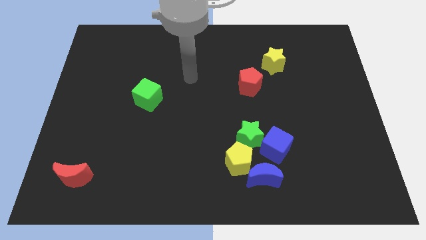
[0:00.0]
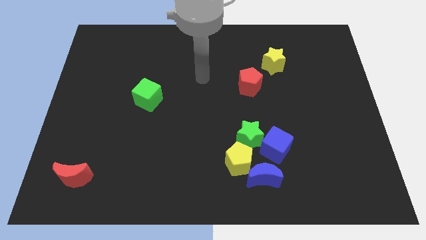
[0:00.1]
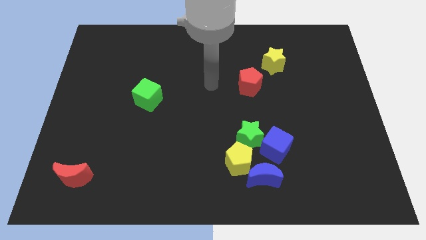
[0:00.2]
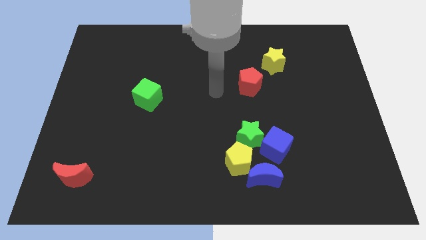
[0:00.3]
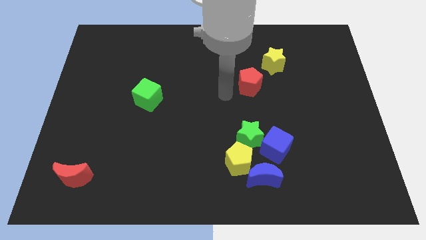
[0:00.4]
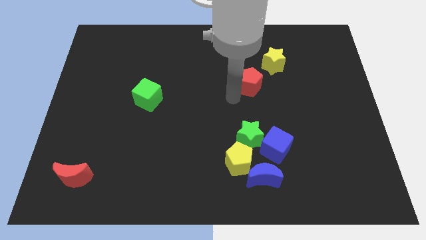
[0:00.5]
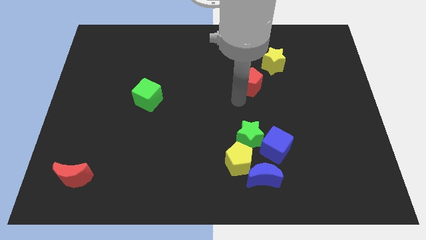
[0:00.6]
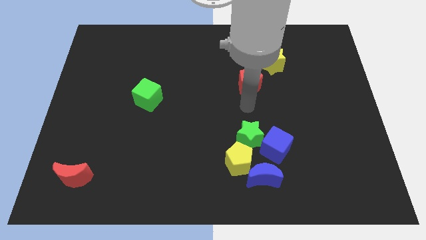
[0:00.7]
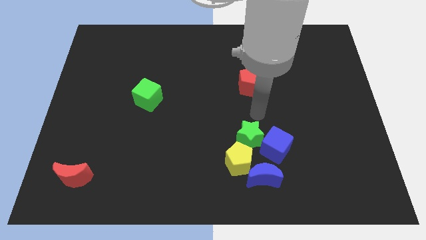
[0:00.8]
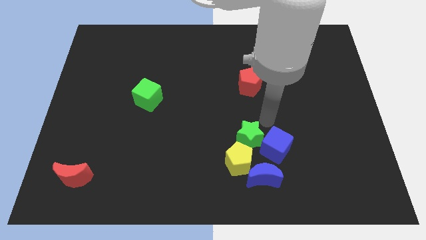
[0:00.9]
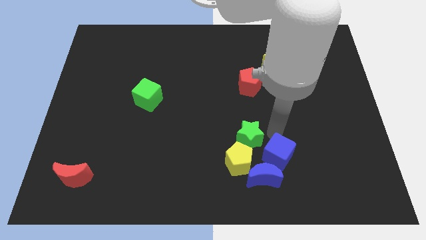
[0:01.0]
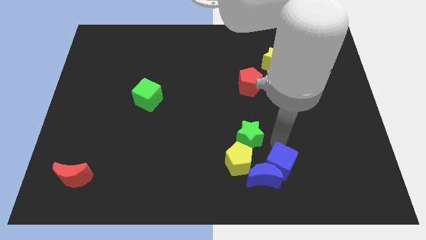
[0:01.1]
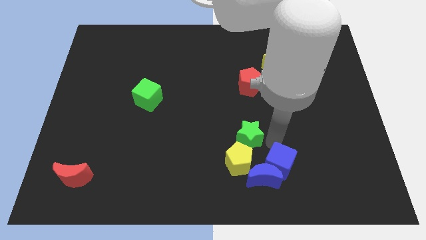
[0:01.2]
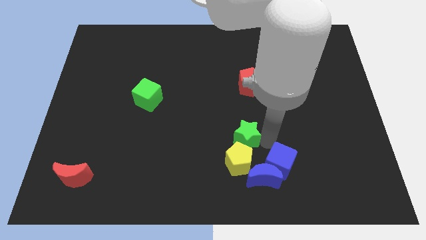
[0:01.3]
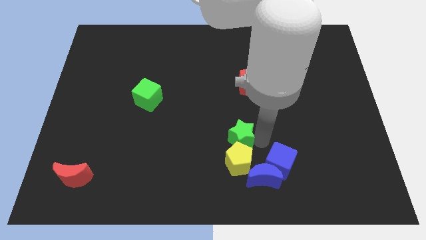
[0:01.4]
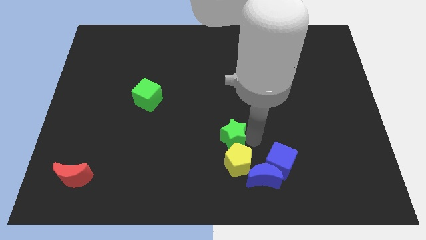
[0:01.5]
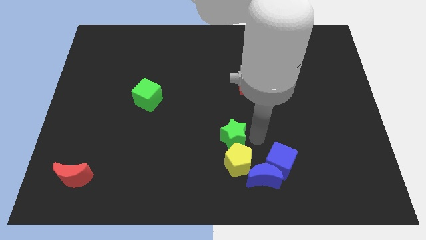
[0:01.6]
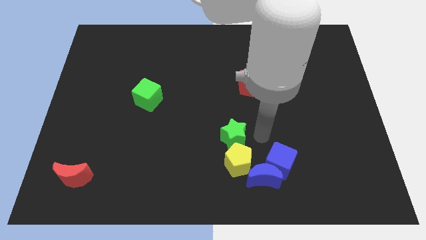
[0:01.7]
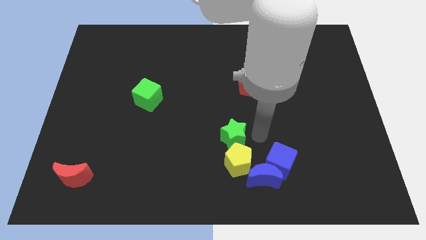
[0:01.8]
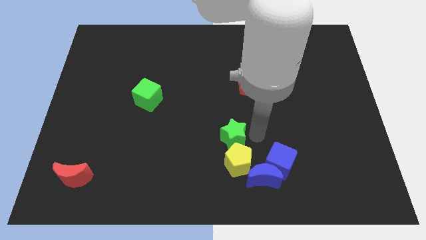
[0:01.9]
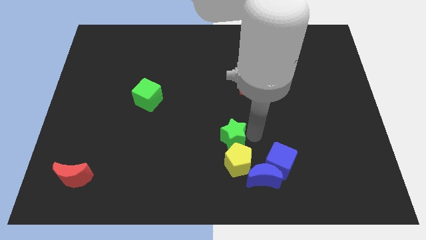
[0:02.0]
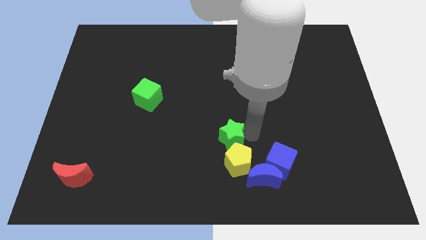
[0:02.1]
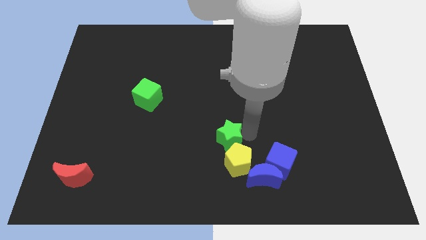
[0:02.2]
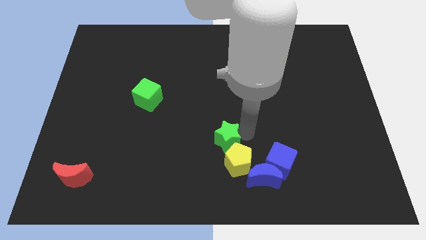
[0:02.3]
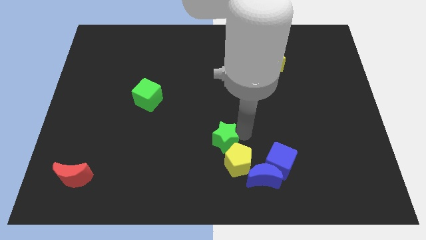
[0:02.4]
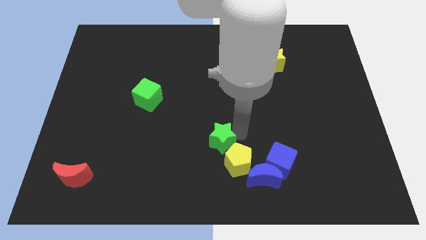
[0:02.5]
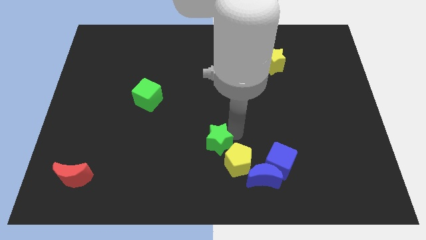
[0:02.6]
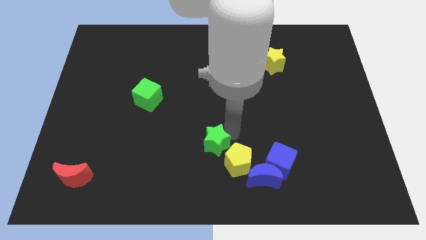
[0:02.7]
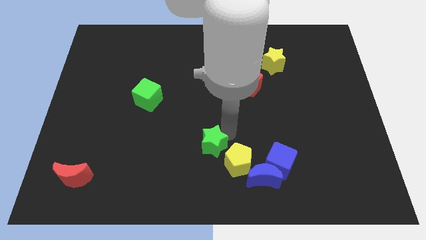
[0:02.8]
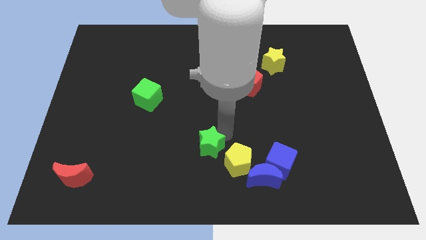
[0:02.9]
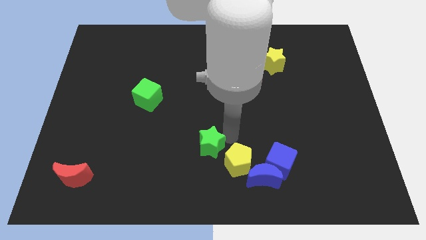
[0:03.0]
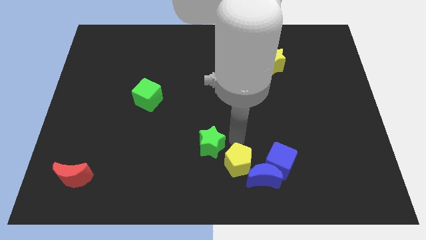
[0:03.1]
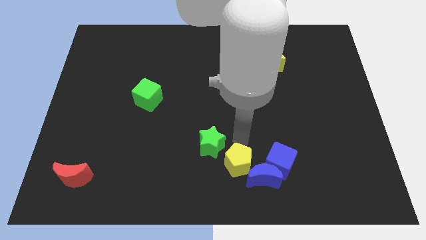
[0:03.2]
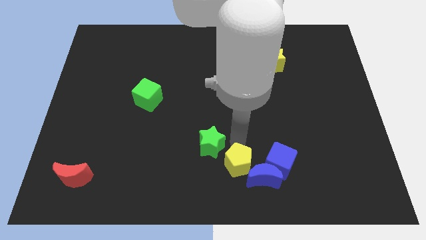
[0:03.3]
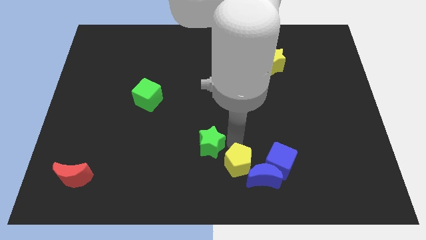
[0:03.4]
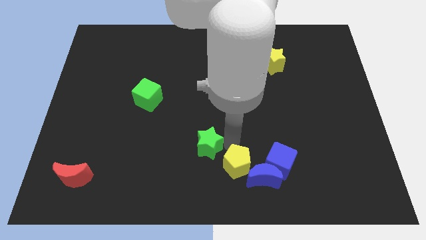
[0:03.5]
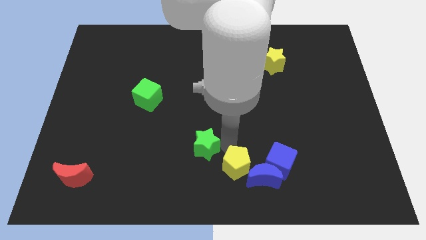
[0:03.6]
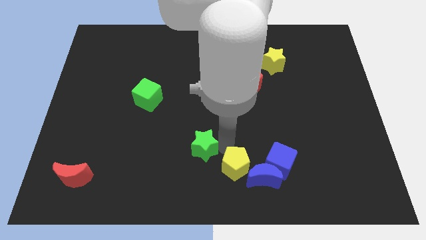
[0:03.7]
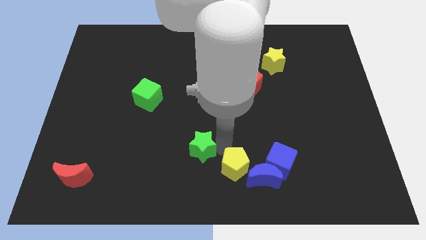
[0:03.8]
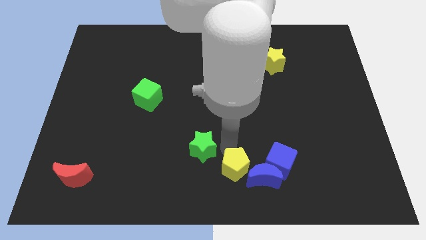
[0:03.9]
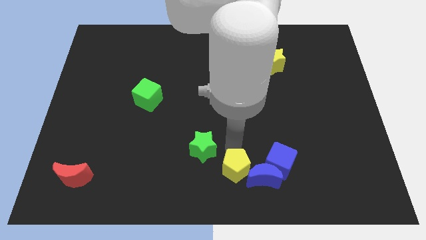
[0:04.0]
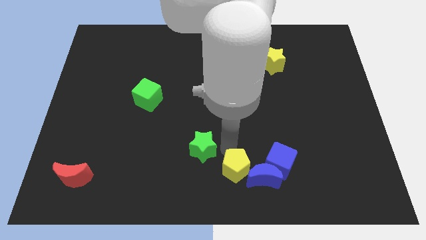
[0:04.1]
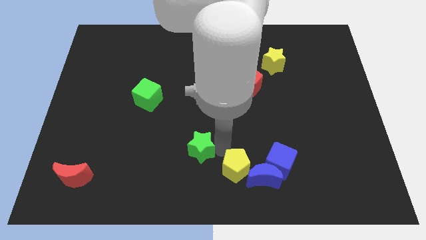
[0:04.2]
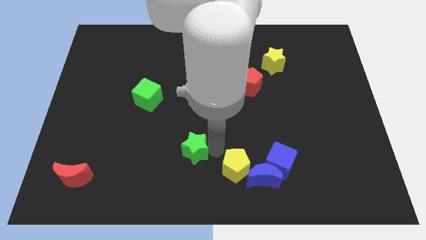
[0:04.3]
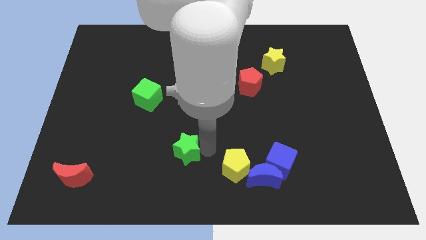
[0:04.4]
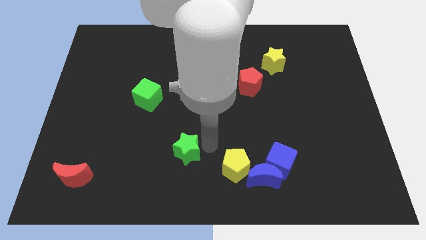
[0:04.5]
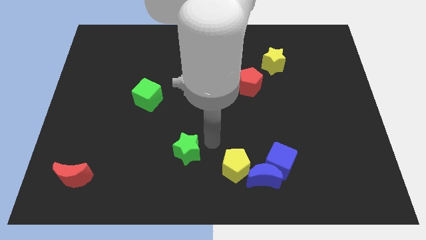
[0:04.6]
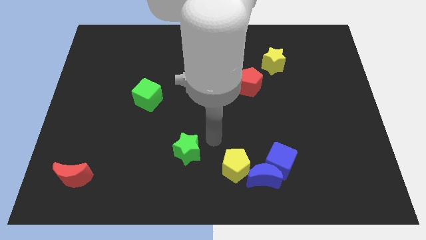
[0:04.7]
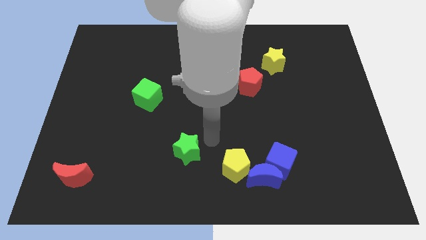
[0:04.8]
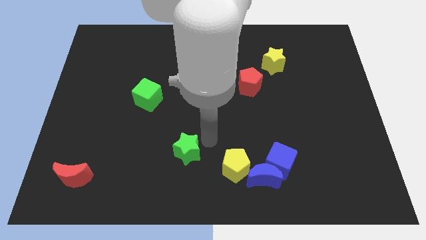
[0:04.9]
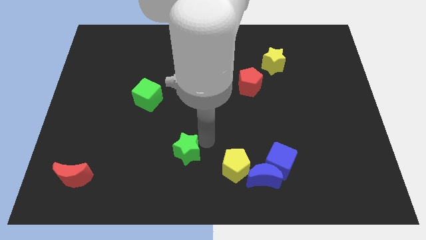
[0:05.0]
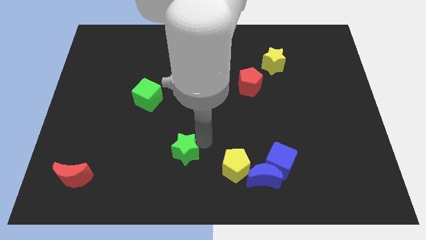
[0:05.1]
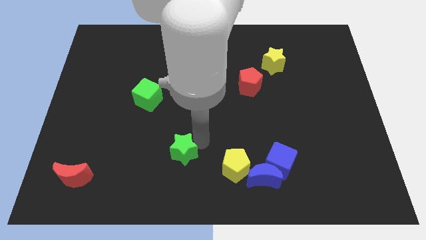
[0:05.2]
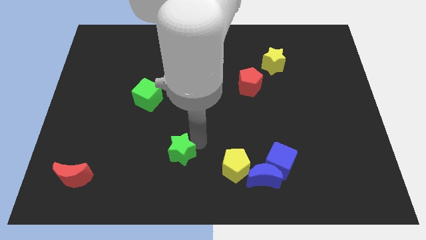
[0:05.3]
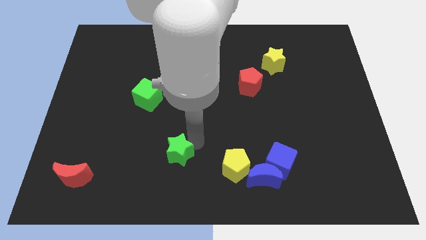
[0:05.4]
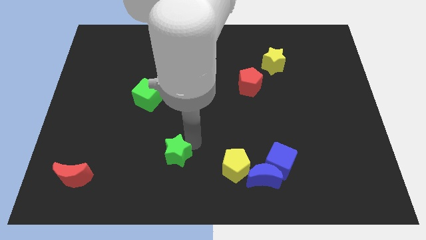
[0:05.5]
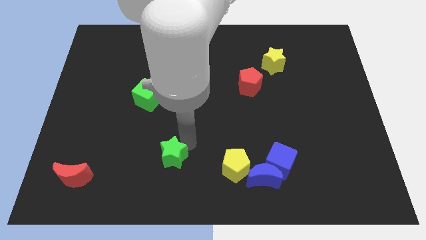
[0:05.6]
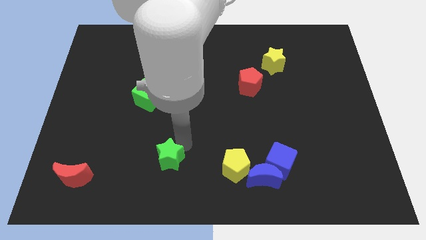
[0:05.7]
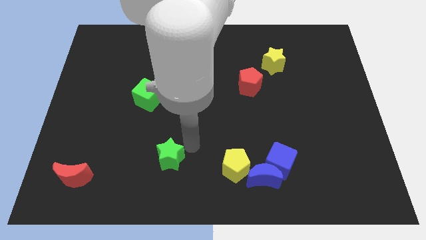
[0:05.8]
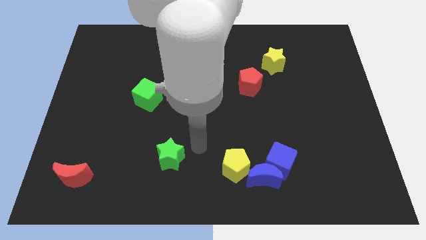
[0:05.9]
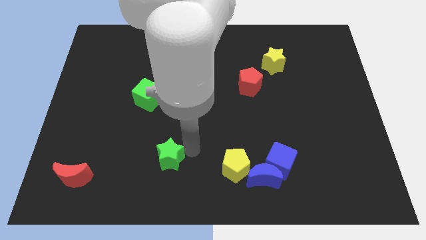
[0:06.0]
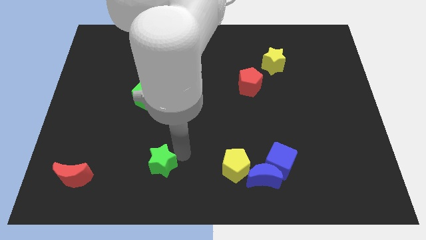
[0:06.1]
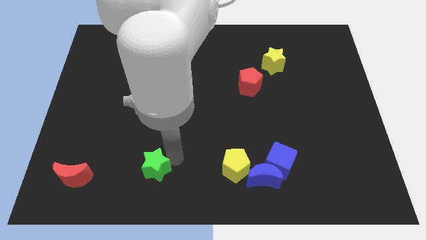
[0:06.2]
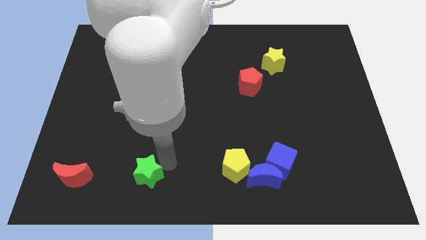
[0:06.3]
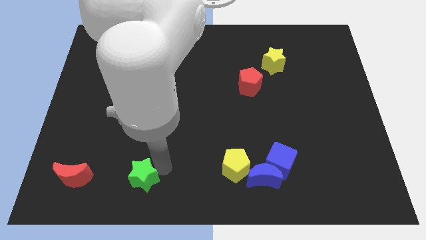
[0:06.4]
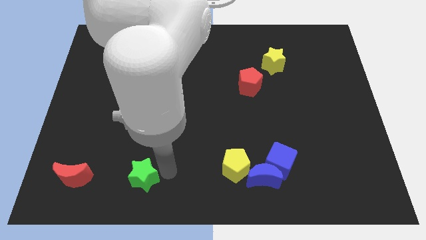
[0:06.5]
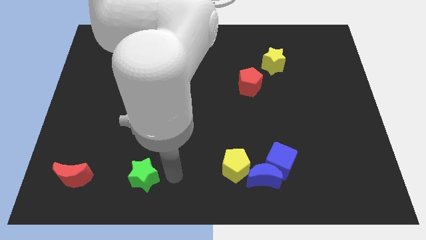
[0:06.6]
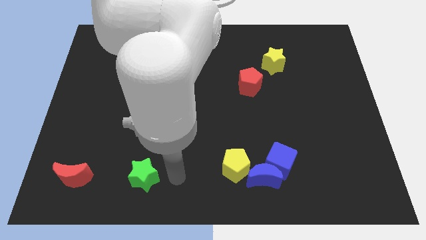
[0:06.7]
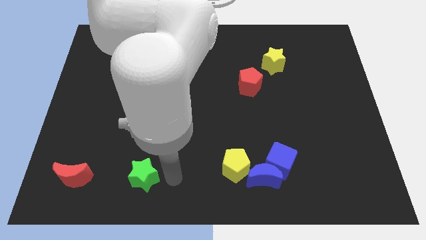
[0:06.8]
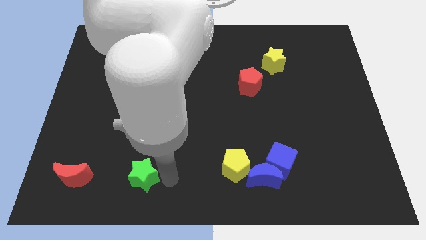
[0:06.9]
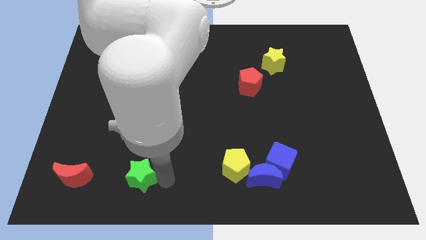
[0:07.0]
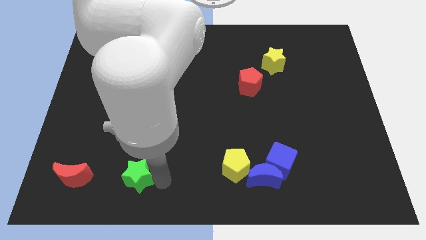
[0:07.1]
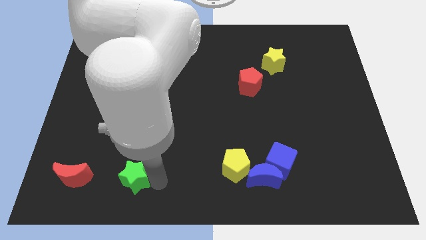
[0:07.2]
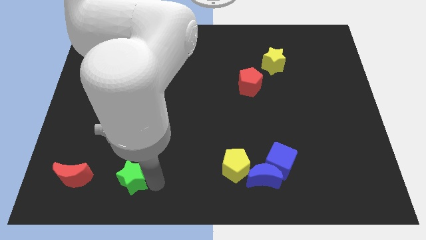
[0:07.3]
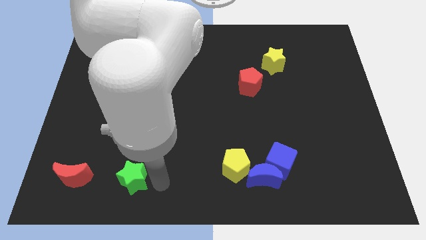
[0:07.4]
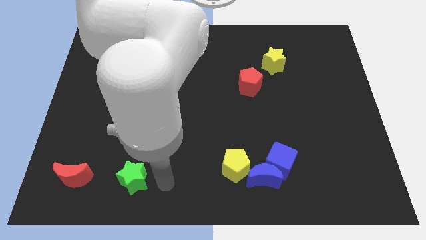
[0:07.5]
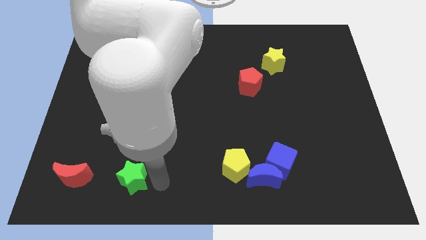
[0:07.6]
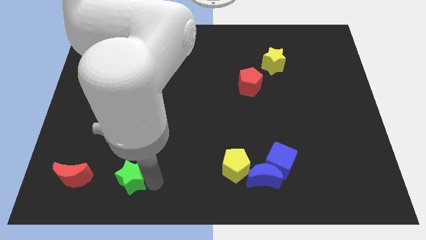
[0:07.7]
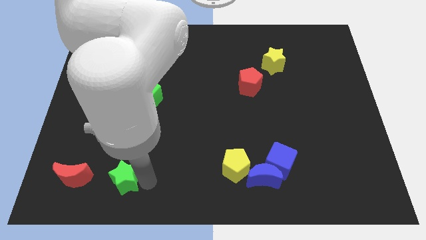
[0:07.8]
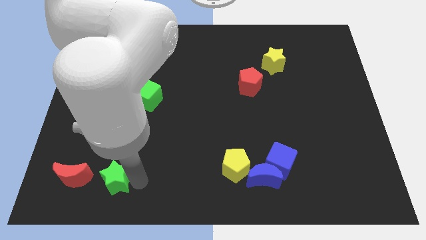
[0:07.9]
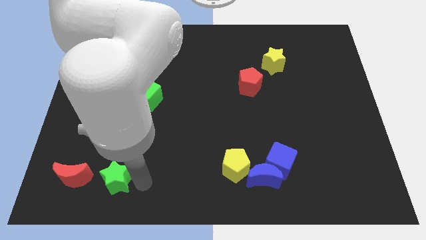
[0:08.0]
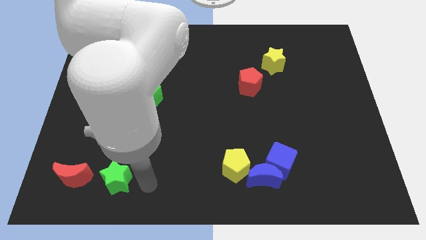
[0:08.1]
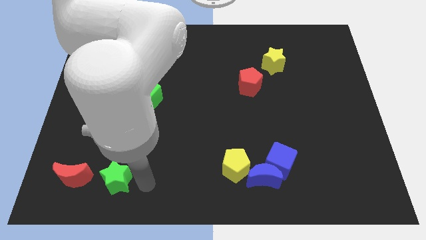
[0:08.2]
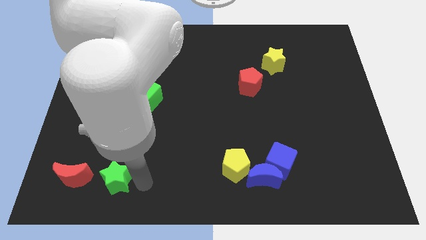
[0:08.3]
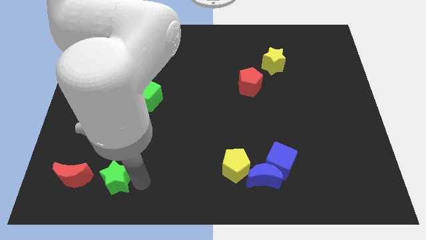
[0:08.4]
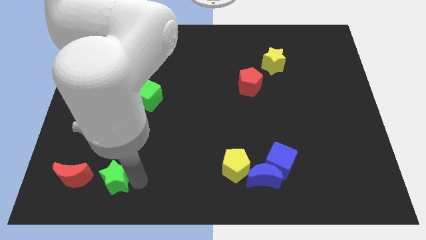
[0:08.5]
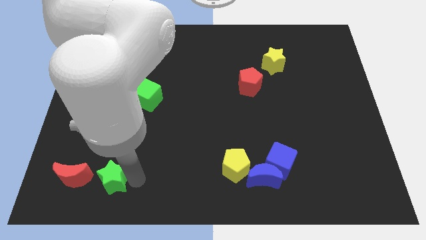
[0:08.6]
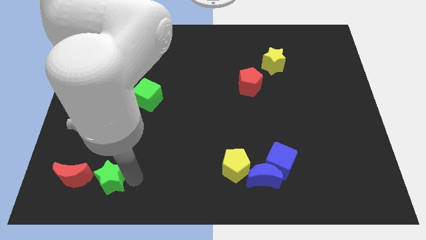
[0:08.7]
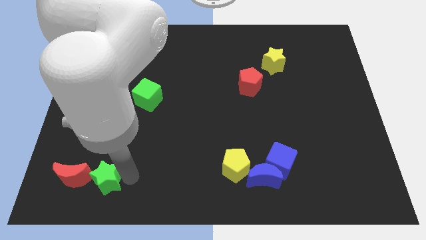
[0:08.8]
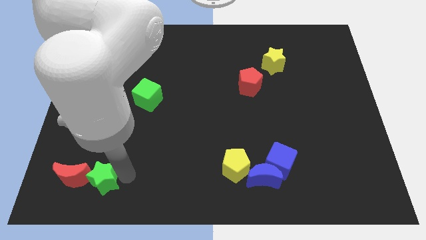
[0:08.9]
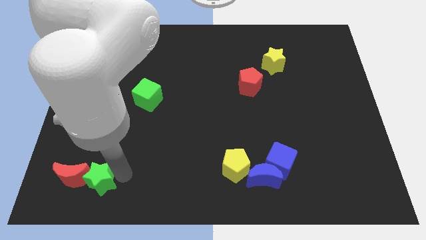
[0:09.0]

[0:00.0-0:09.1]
move the green star close to the red moon
